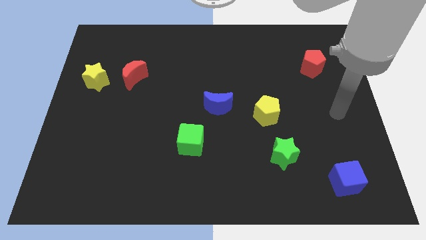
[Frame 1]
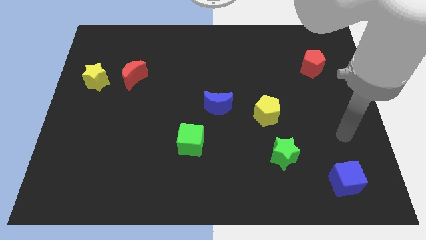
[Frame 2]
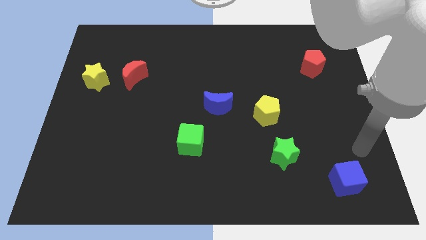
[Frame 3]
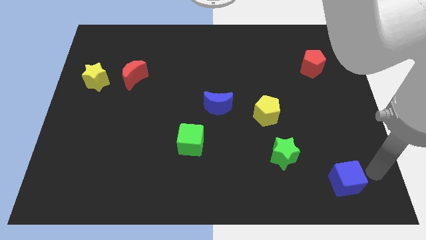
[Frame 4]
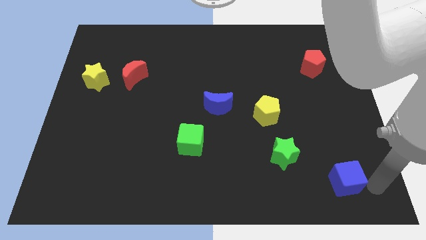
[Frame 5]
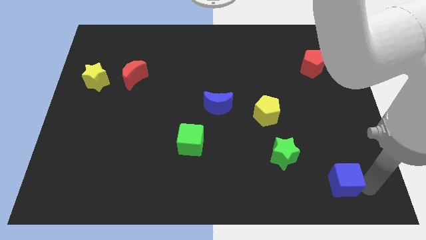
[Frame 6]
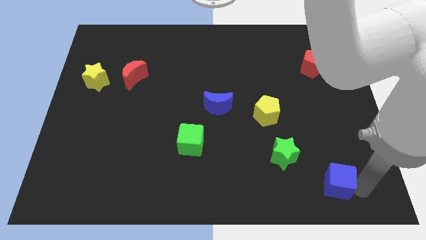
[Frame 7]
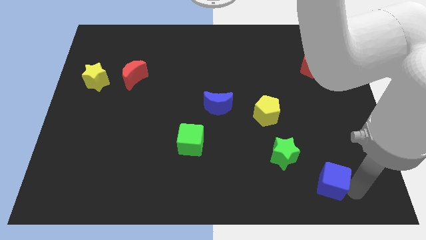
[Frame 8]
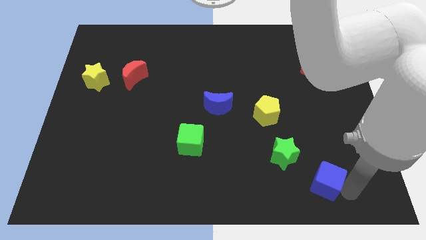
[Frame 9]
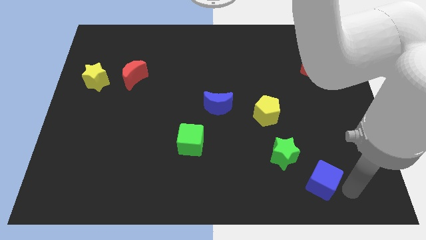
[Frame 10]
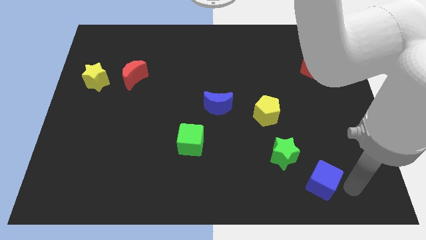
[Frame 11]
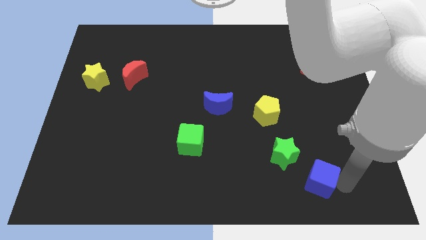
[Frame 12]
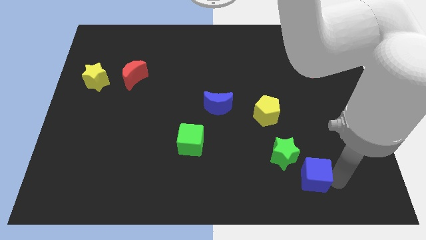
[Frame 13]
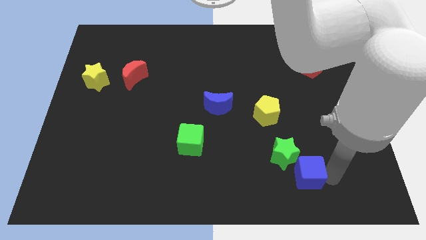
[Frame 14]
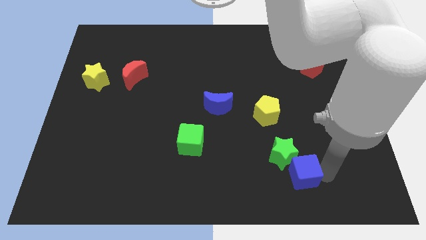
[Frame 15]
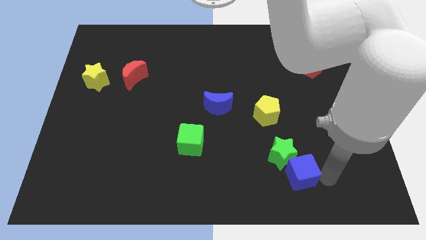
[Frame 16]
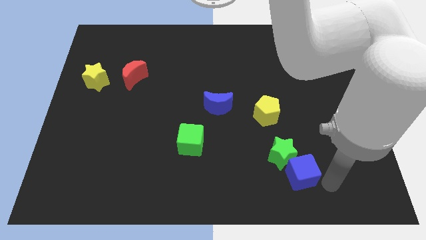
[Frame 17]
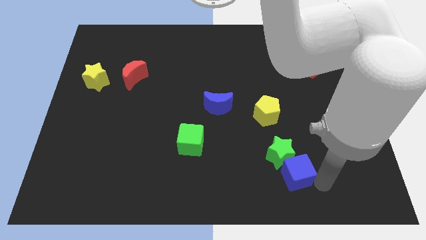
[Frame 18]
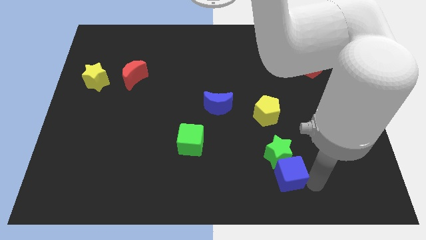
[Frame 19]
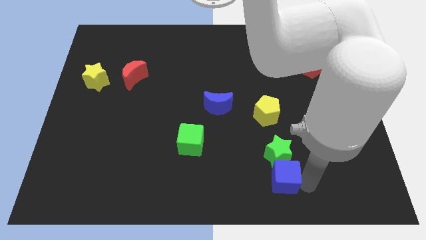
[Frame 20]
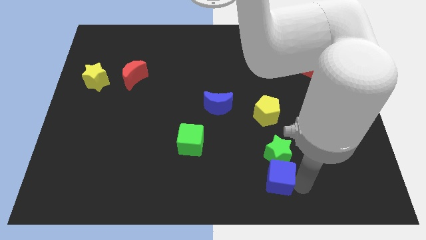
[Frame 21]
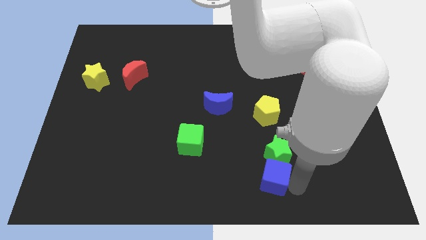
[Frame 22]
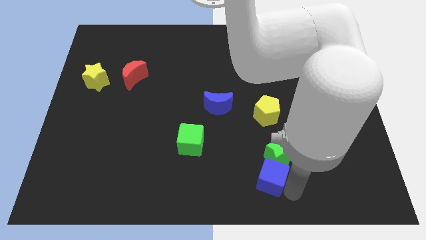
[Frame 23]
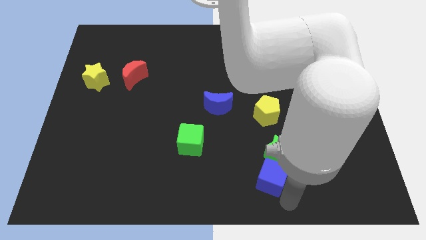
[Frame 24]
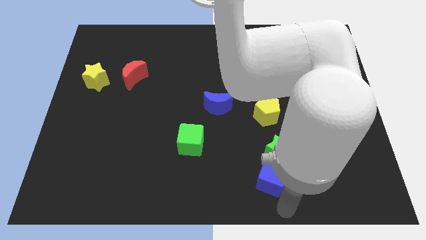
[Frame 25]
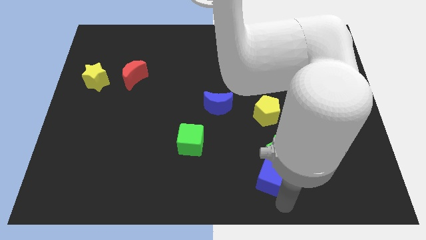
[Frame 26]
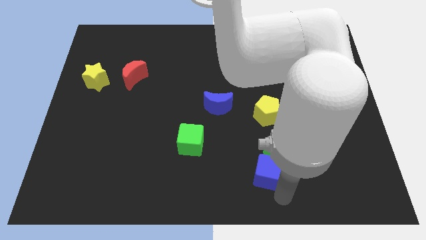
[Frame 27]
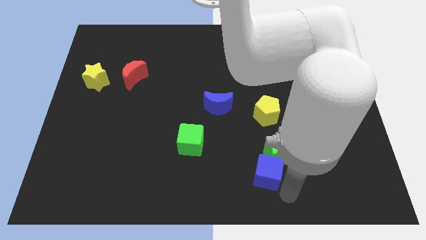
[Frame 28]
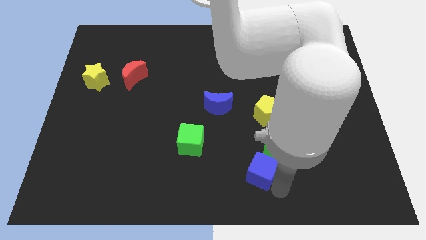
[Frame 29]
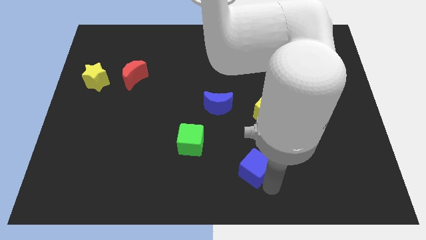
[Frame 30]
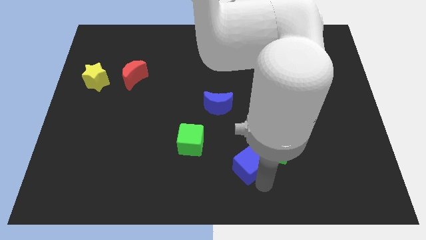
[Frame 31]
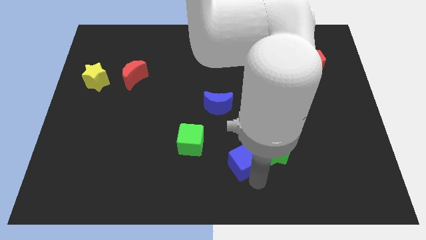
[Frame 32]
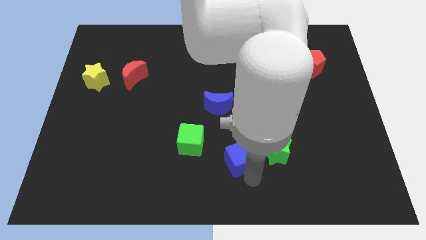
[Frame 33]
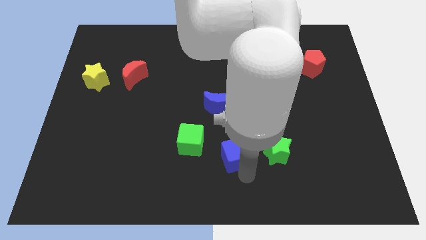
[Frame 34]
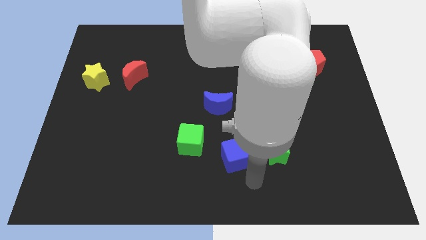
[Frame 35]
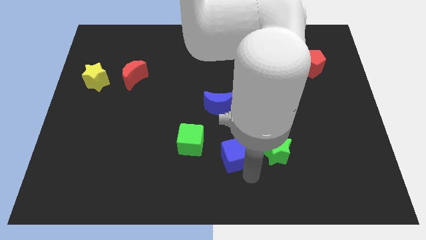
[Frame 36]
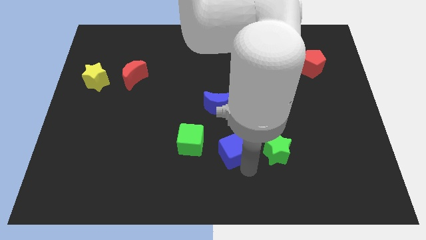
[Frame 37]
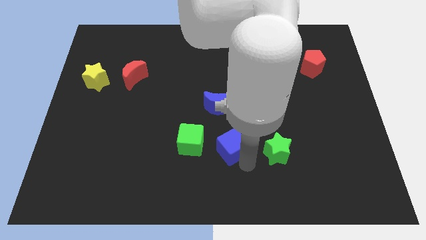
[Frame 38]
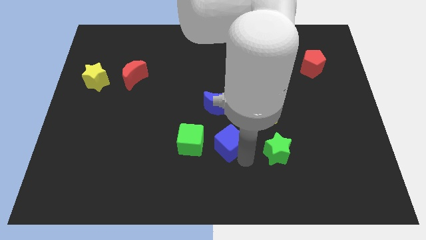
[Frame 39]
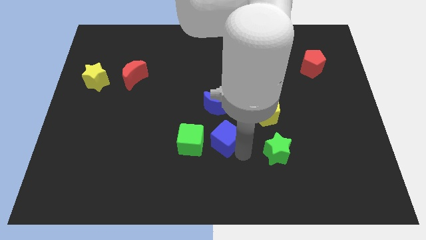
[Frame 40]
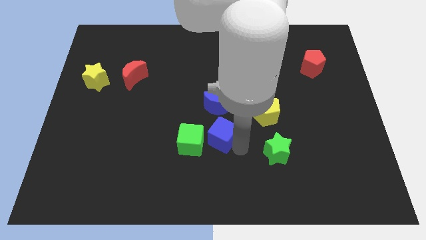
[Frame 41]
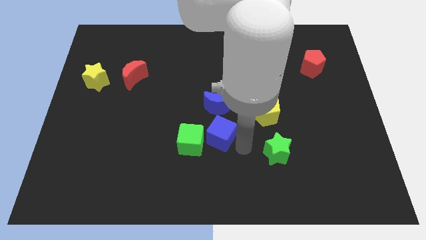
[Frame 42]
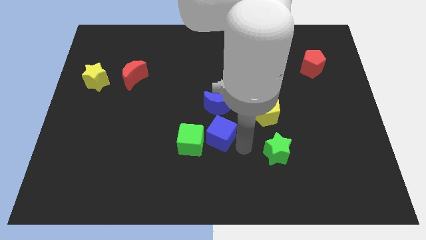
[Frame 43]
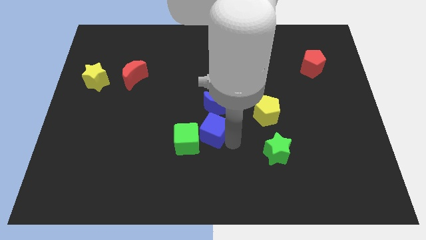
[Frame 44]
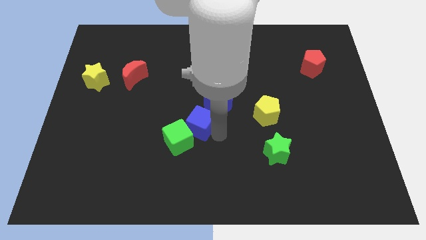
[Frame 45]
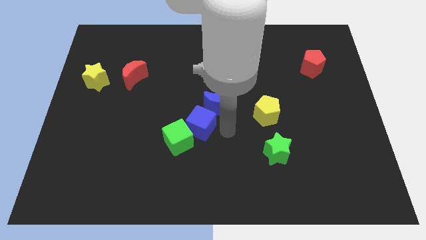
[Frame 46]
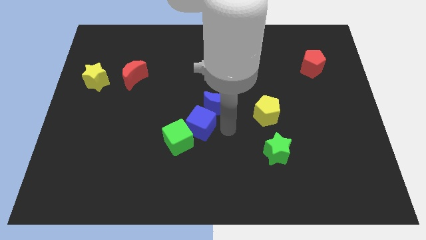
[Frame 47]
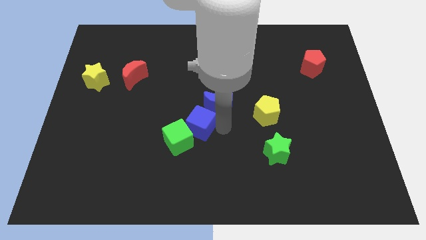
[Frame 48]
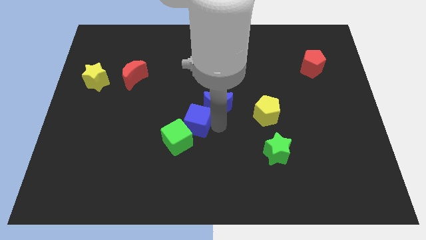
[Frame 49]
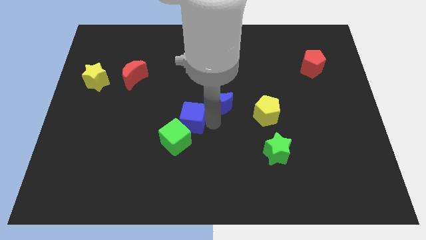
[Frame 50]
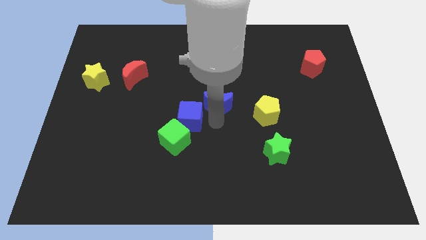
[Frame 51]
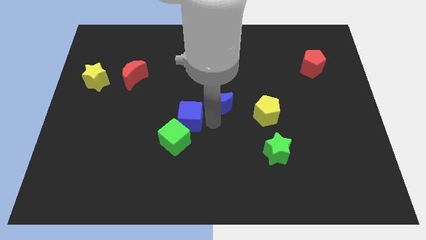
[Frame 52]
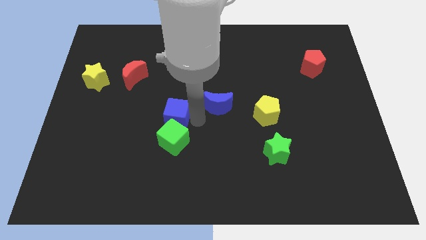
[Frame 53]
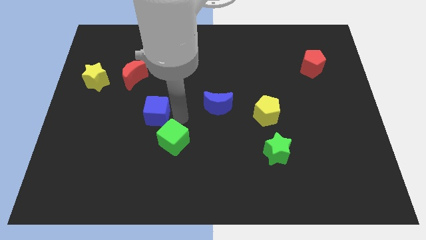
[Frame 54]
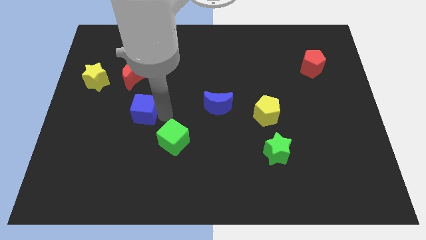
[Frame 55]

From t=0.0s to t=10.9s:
push the blue cube to the bottom of the red moon

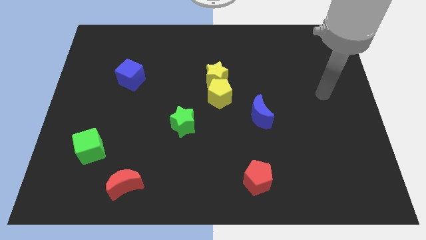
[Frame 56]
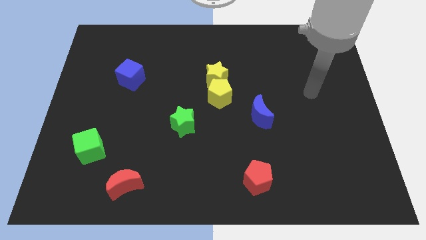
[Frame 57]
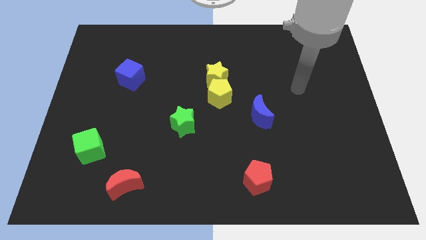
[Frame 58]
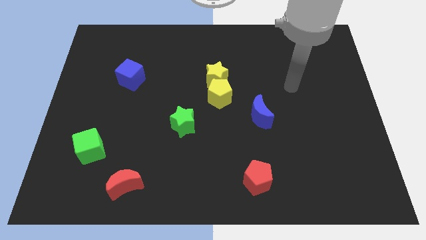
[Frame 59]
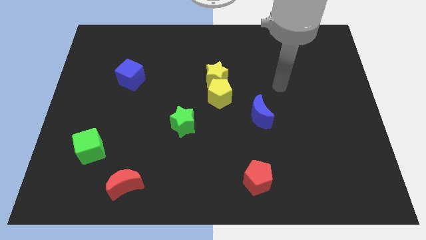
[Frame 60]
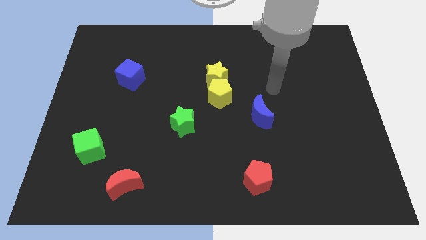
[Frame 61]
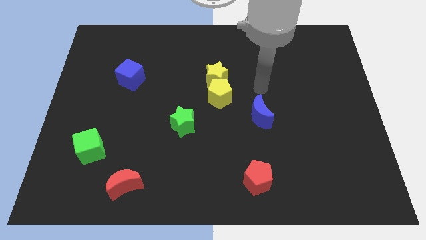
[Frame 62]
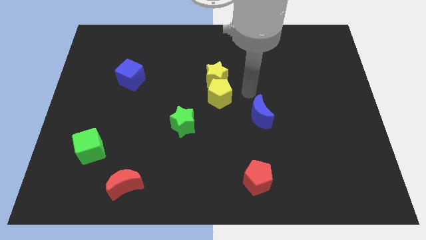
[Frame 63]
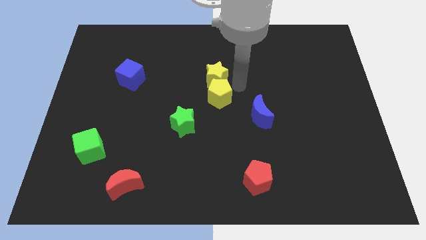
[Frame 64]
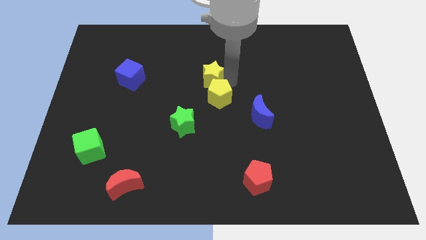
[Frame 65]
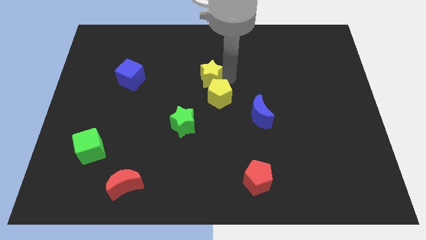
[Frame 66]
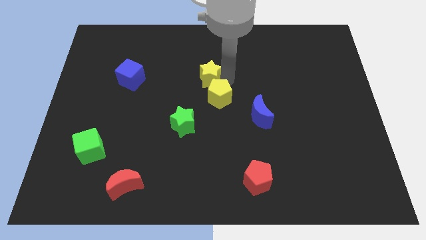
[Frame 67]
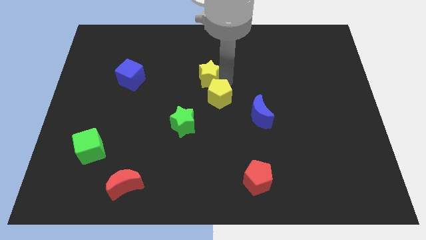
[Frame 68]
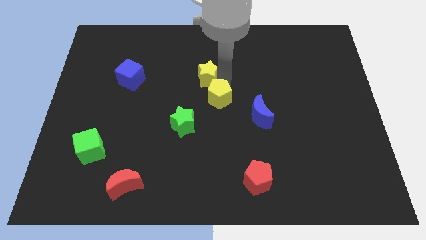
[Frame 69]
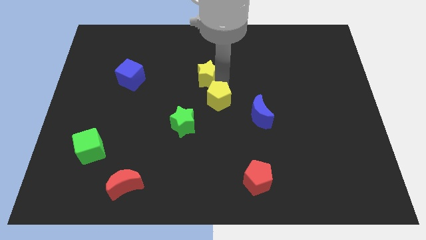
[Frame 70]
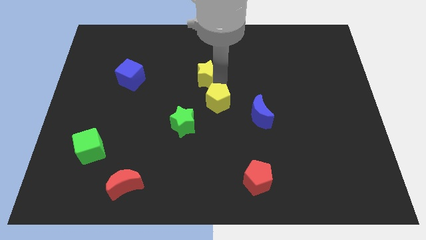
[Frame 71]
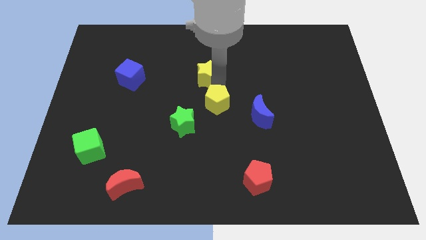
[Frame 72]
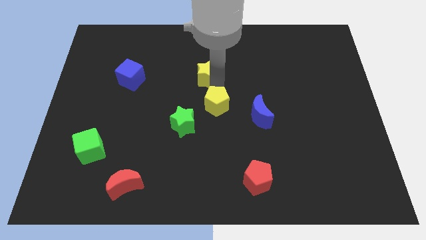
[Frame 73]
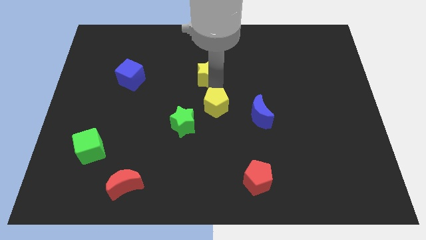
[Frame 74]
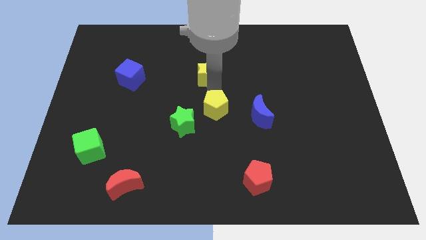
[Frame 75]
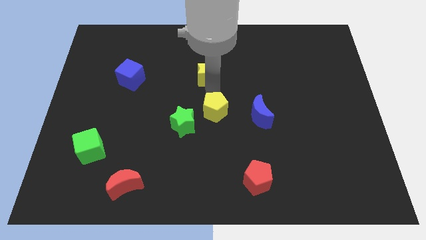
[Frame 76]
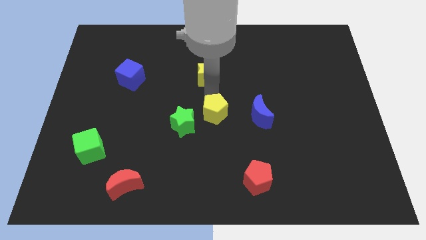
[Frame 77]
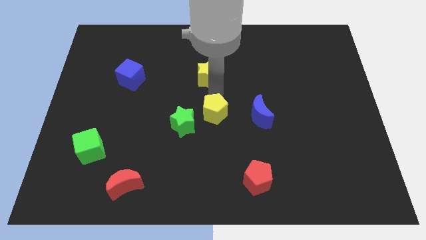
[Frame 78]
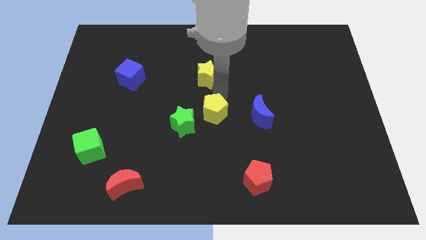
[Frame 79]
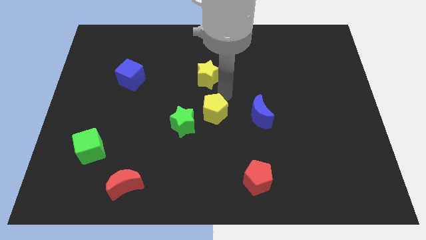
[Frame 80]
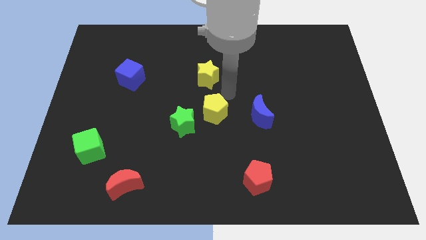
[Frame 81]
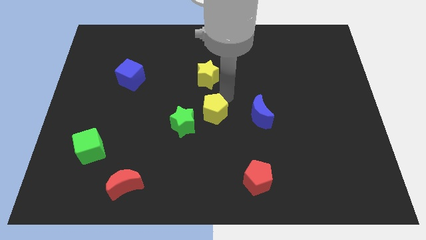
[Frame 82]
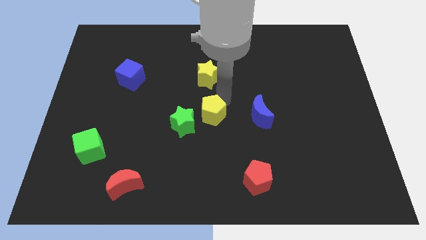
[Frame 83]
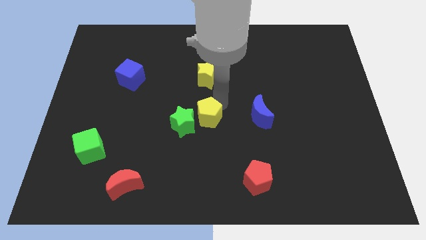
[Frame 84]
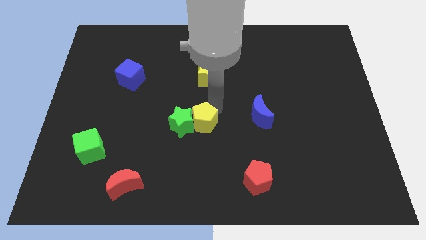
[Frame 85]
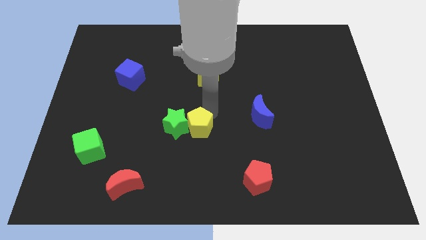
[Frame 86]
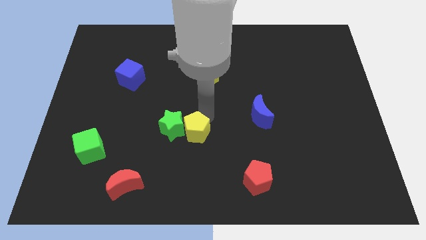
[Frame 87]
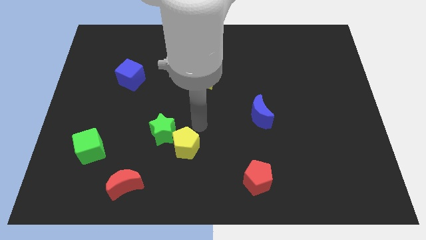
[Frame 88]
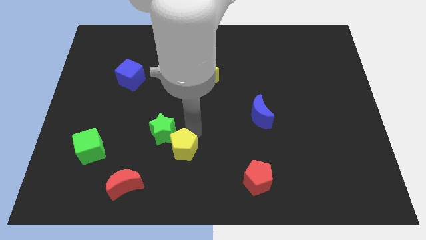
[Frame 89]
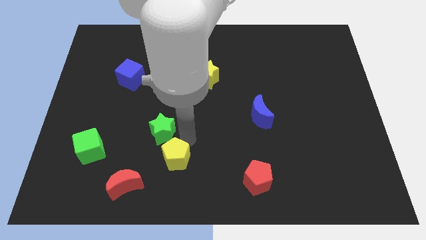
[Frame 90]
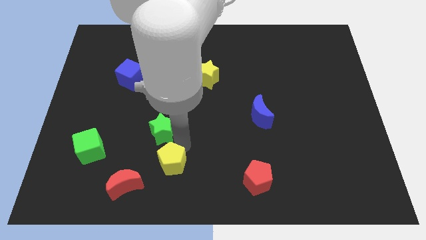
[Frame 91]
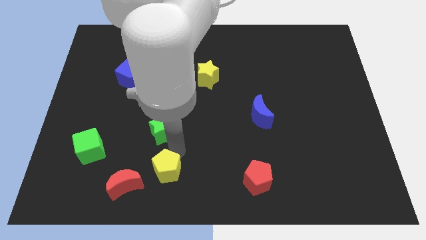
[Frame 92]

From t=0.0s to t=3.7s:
put the yellow pentagon just right of the red moon
